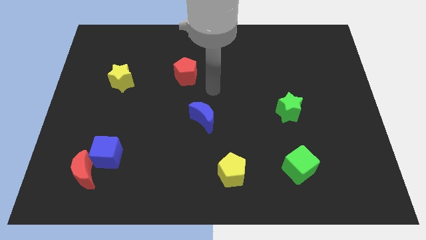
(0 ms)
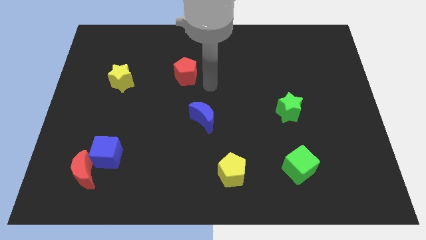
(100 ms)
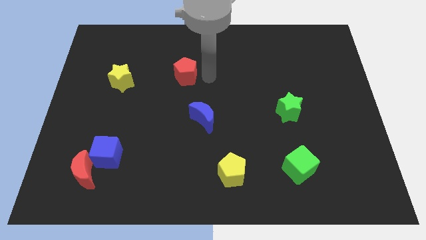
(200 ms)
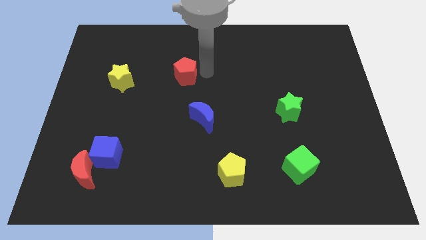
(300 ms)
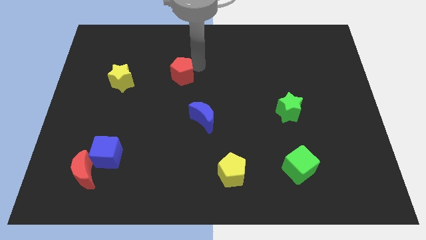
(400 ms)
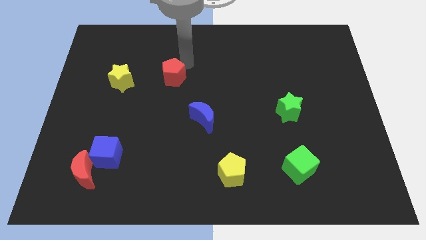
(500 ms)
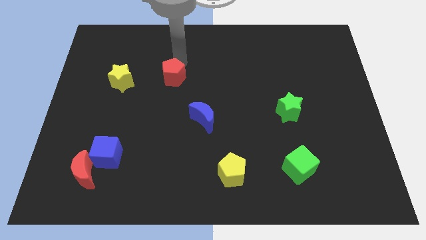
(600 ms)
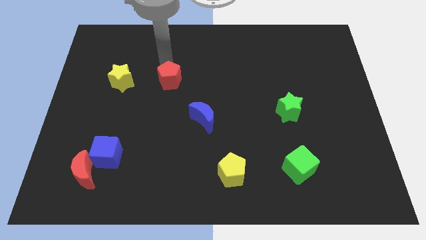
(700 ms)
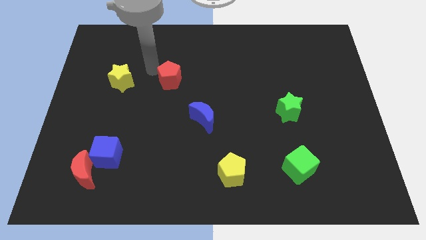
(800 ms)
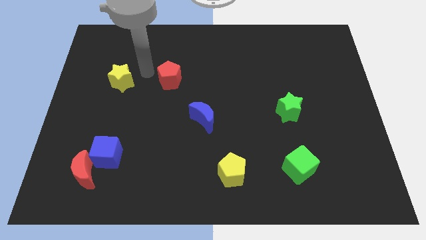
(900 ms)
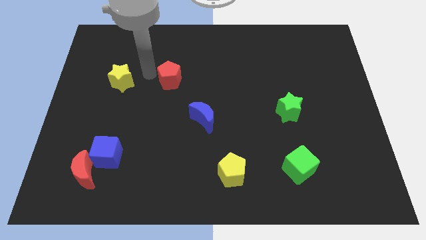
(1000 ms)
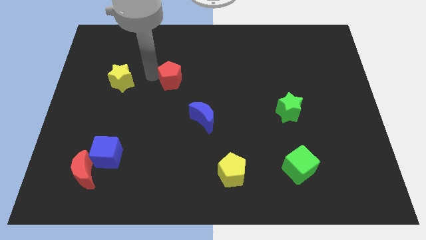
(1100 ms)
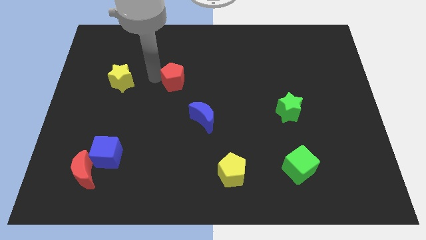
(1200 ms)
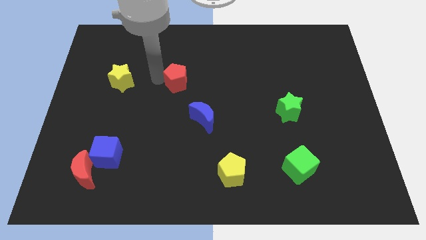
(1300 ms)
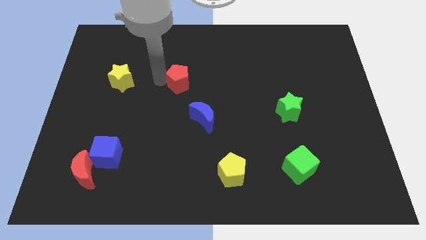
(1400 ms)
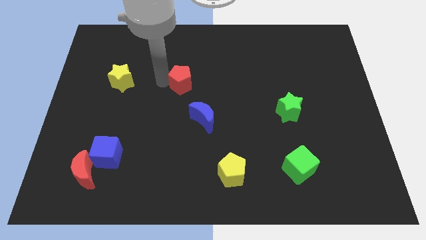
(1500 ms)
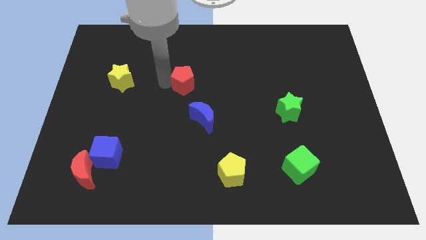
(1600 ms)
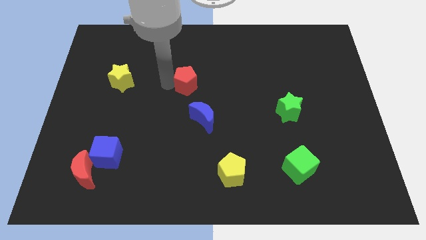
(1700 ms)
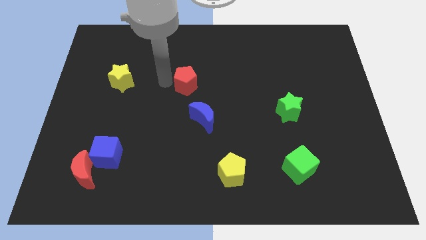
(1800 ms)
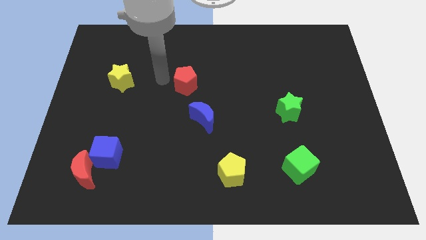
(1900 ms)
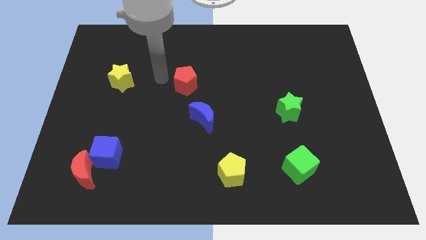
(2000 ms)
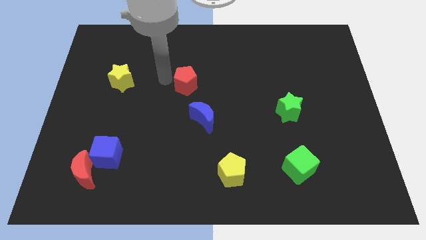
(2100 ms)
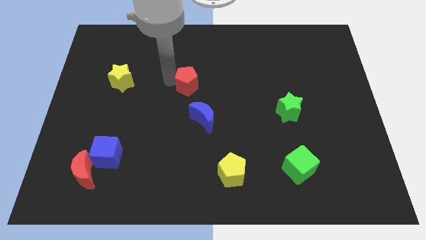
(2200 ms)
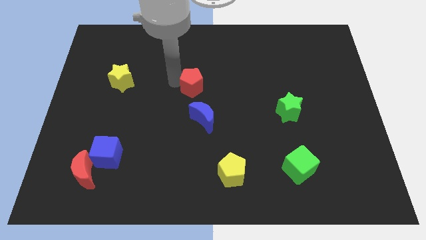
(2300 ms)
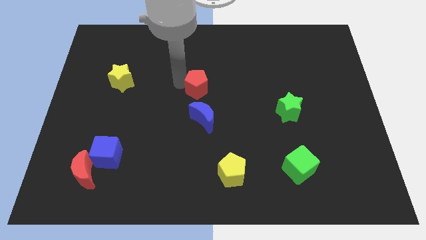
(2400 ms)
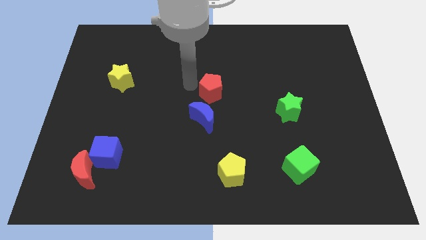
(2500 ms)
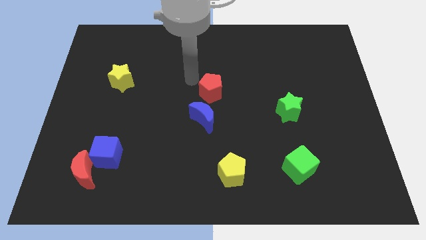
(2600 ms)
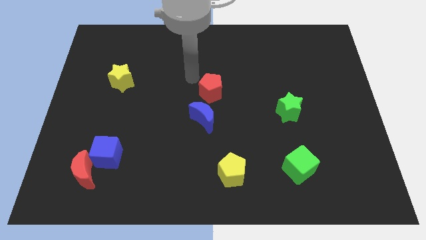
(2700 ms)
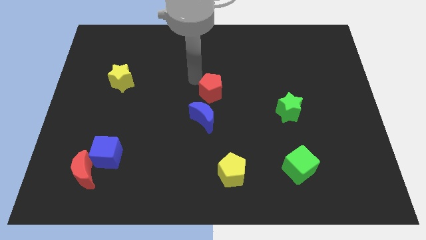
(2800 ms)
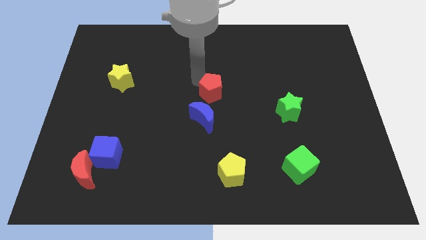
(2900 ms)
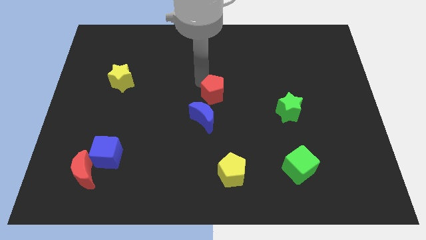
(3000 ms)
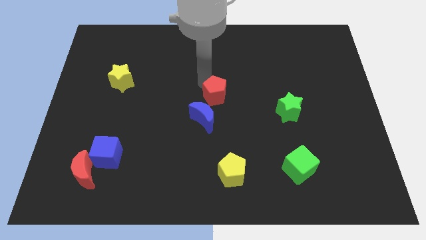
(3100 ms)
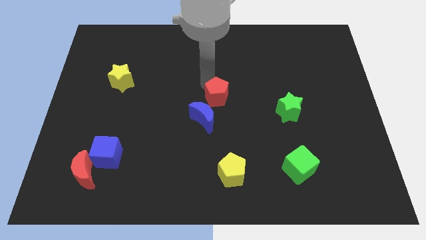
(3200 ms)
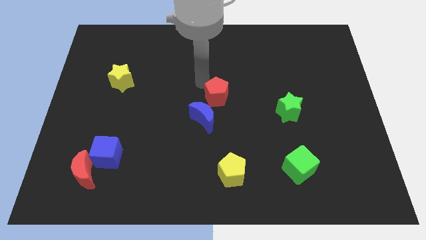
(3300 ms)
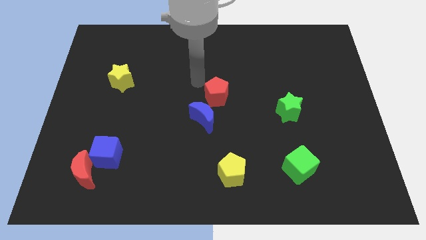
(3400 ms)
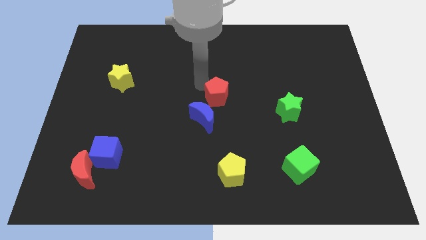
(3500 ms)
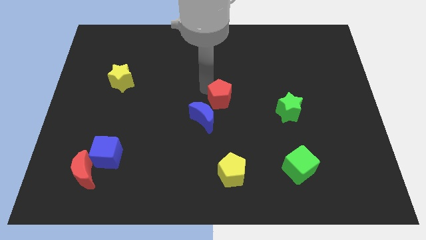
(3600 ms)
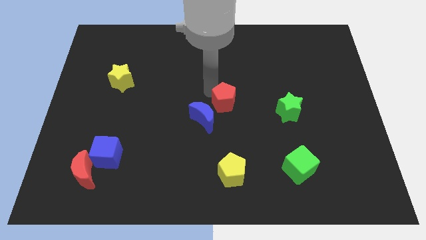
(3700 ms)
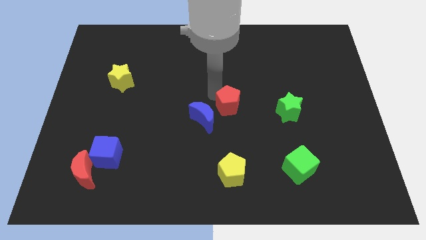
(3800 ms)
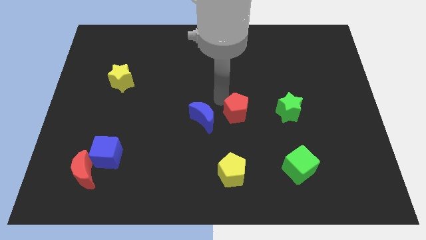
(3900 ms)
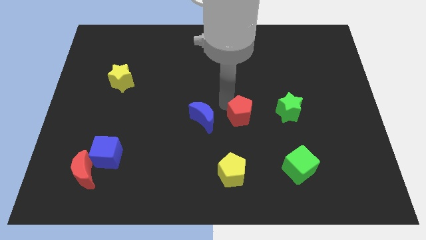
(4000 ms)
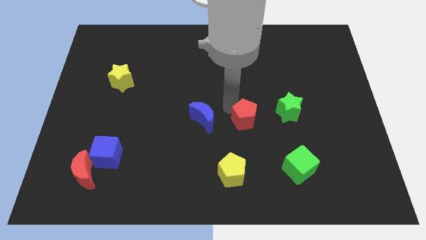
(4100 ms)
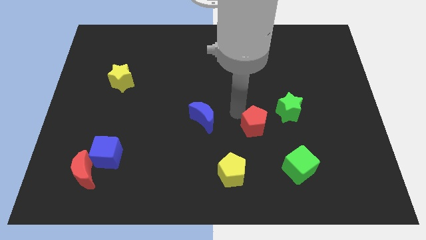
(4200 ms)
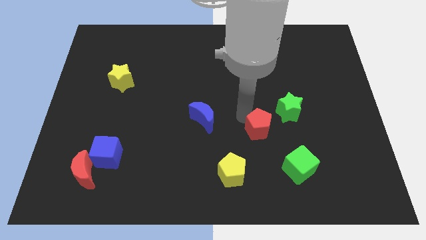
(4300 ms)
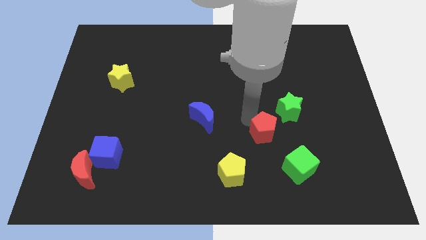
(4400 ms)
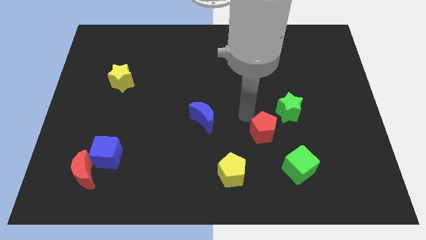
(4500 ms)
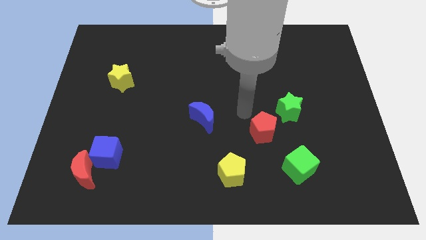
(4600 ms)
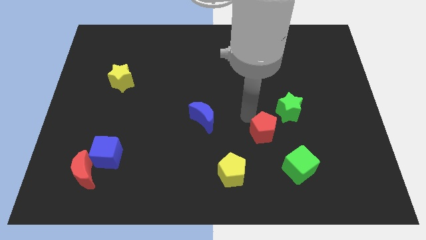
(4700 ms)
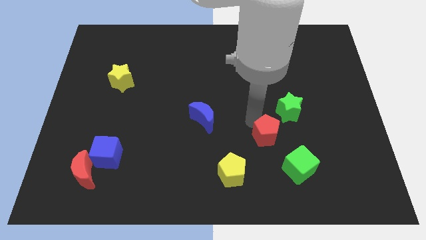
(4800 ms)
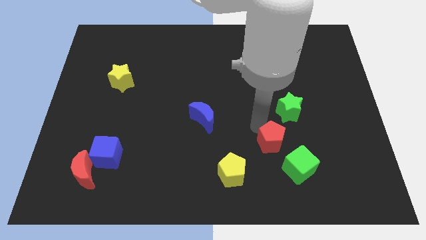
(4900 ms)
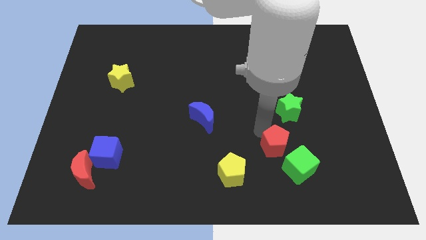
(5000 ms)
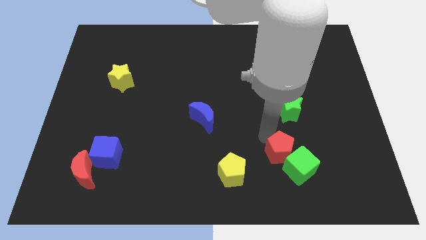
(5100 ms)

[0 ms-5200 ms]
move the red pentagon next to the green cube

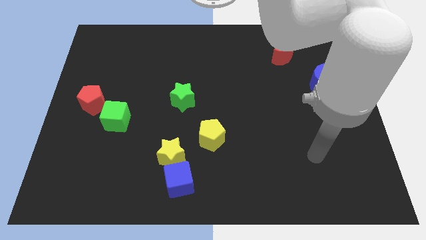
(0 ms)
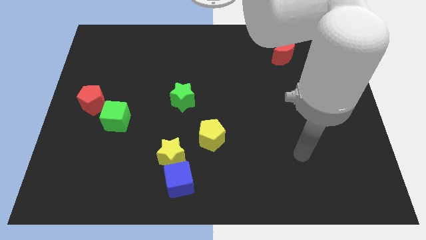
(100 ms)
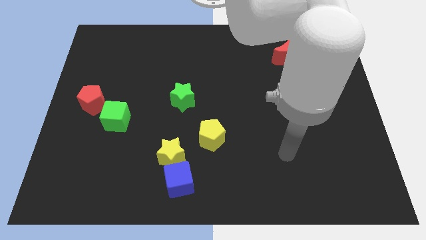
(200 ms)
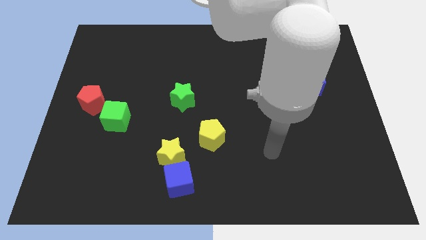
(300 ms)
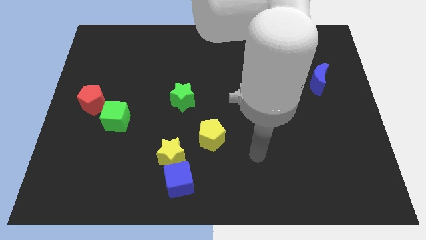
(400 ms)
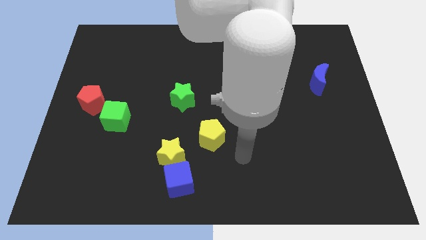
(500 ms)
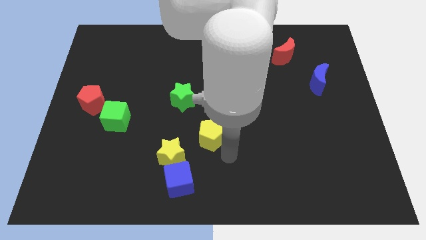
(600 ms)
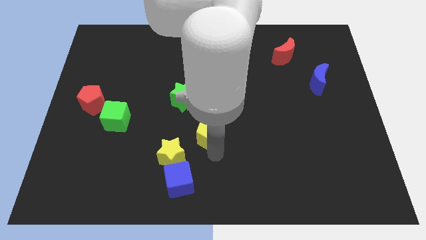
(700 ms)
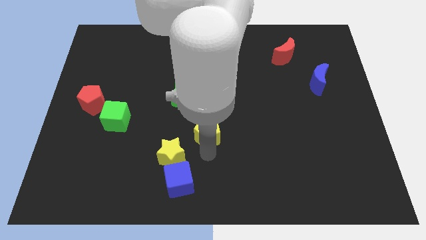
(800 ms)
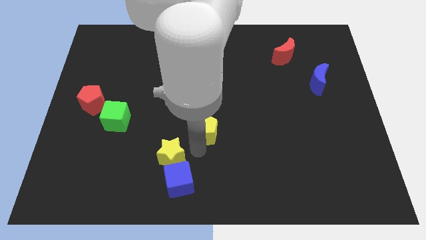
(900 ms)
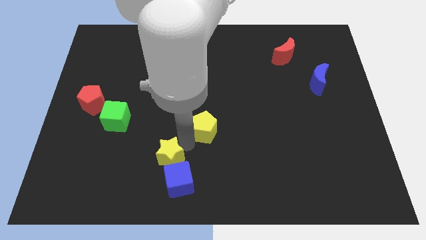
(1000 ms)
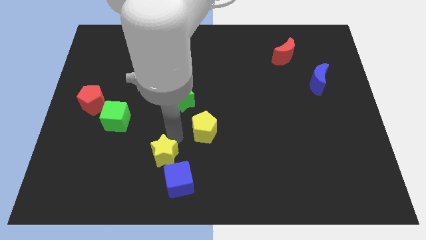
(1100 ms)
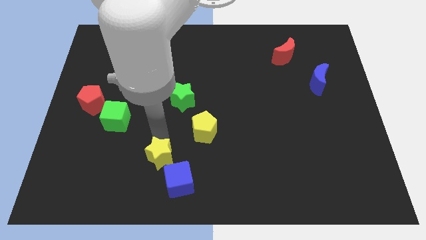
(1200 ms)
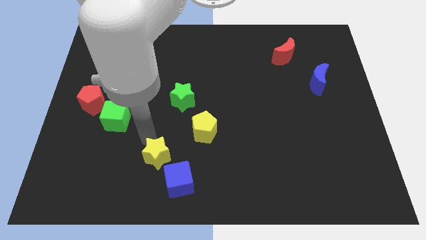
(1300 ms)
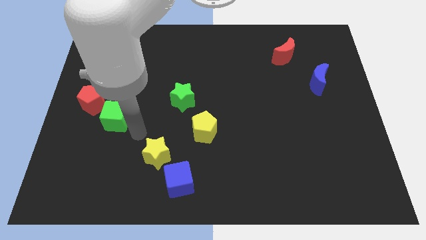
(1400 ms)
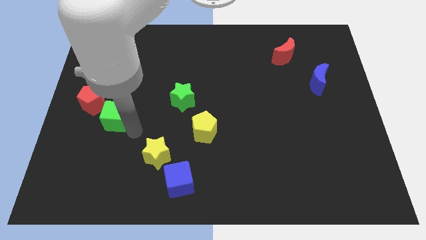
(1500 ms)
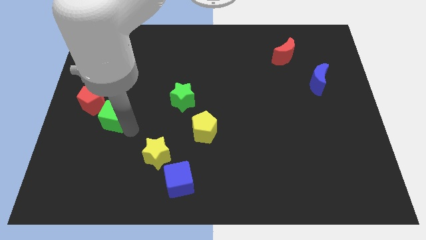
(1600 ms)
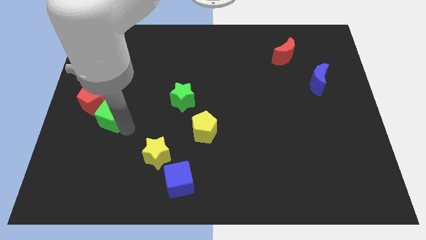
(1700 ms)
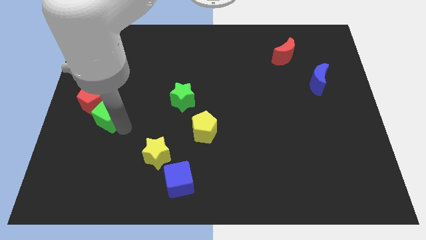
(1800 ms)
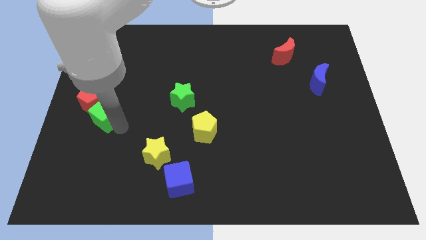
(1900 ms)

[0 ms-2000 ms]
push the green cube next to the red pentagon

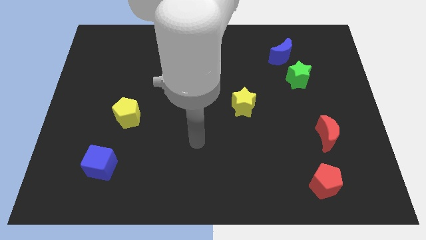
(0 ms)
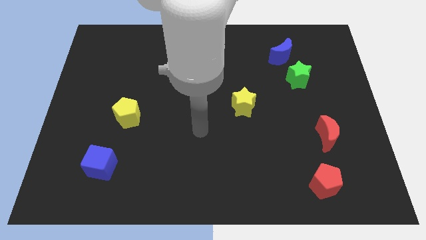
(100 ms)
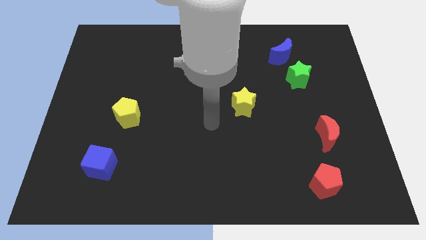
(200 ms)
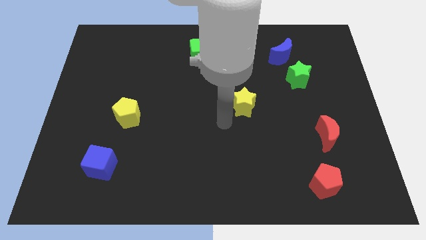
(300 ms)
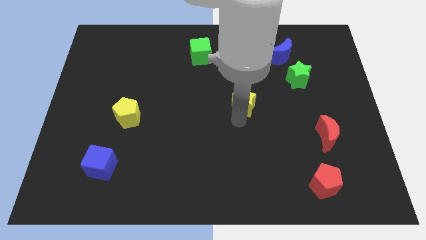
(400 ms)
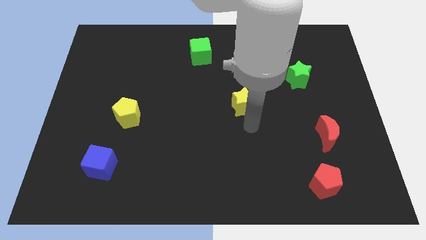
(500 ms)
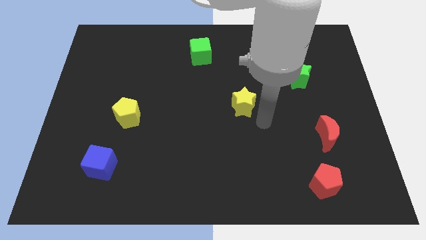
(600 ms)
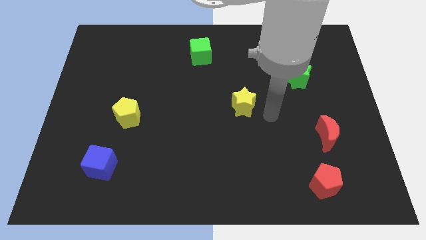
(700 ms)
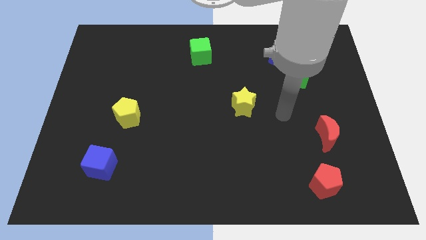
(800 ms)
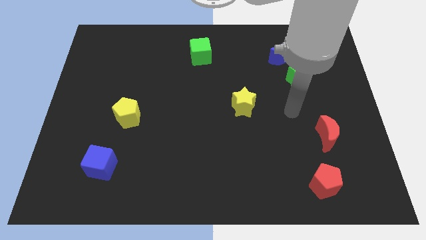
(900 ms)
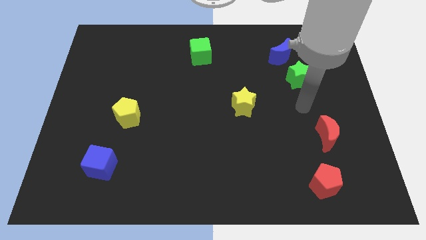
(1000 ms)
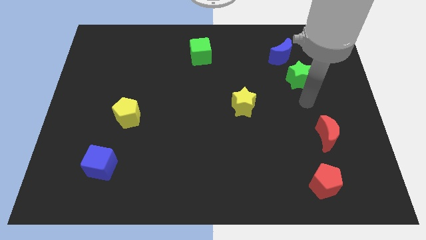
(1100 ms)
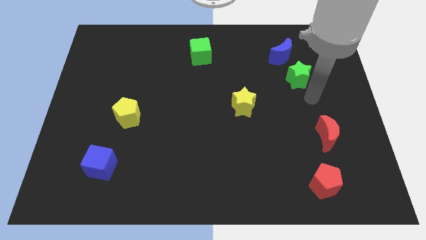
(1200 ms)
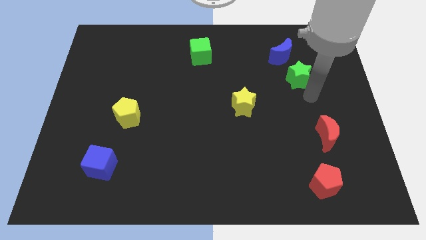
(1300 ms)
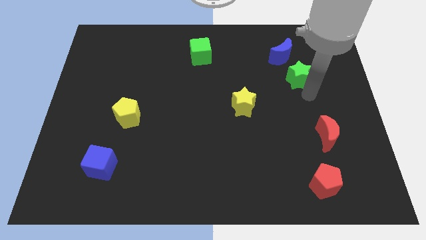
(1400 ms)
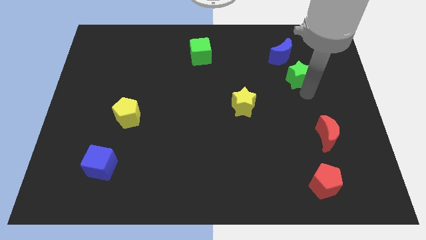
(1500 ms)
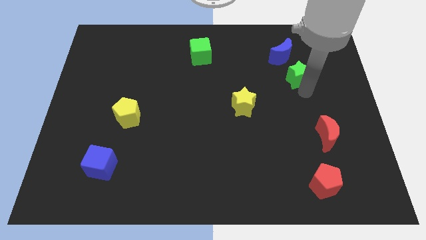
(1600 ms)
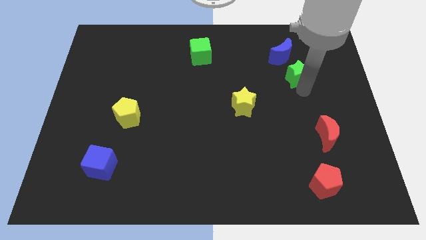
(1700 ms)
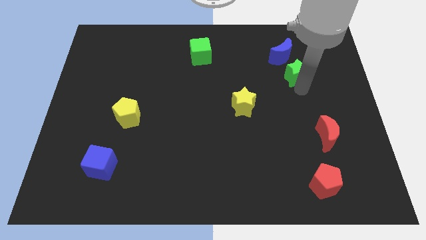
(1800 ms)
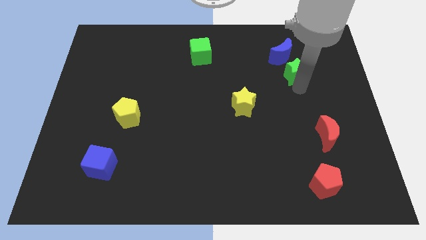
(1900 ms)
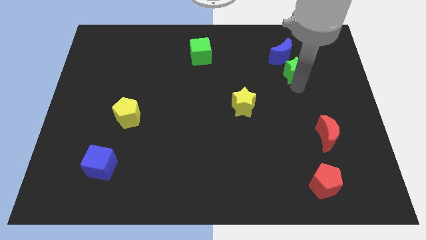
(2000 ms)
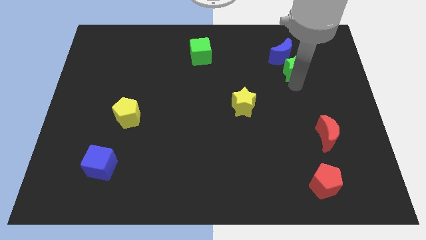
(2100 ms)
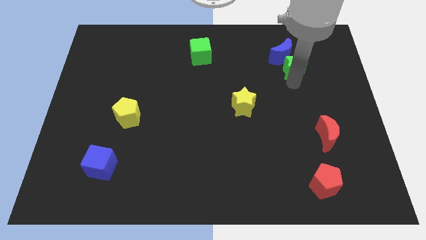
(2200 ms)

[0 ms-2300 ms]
slide the green star to the blue moon
